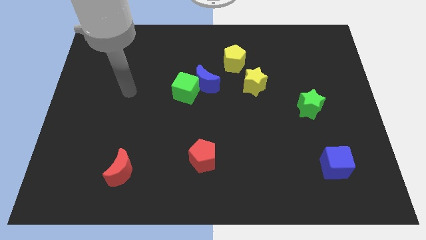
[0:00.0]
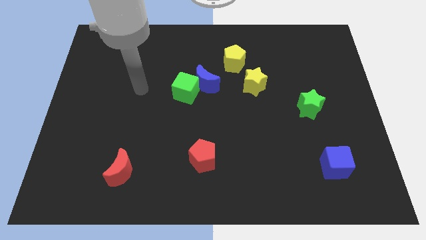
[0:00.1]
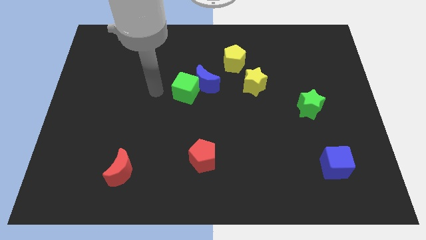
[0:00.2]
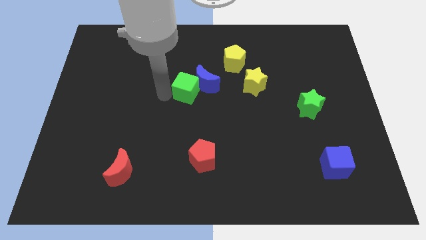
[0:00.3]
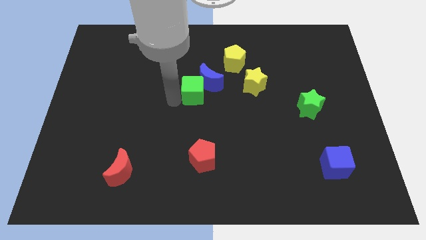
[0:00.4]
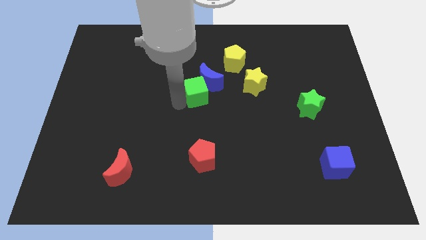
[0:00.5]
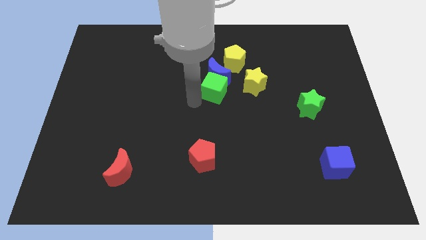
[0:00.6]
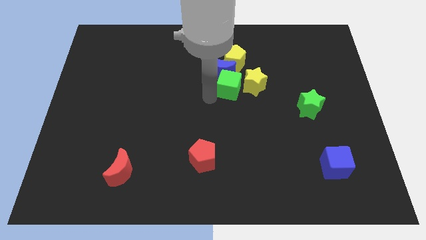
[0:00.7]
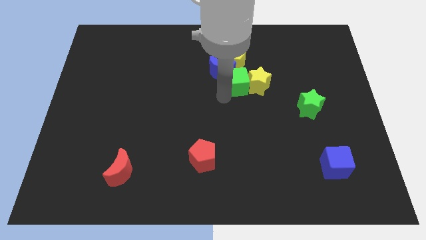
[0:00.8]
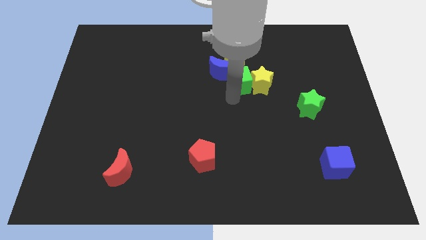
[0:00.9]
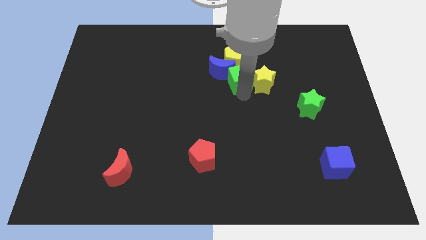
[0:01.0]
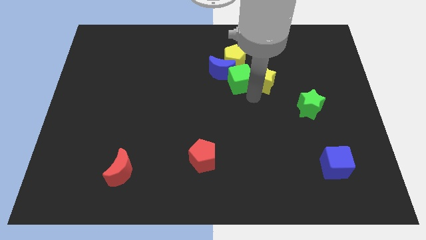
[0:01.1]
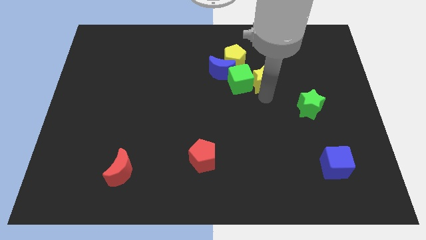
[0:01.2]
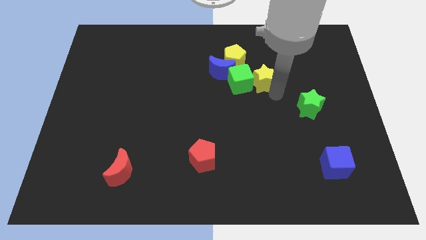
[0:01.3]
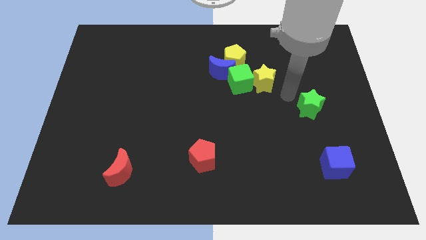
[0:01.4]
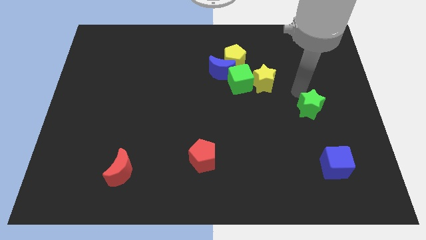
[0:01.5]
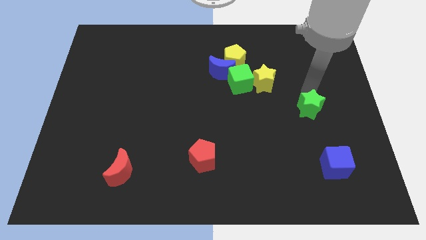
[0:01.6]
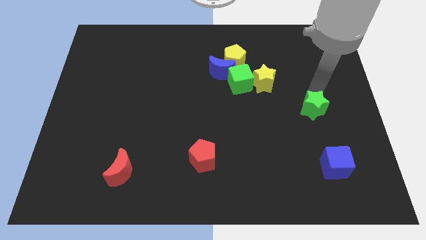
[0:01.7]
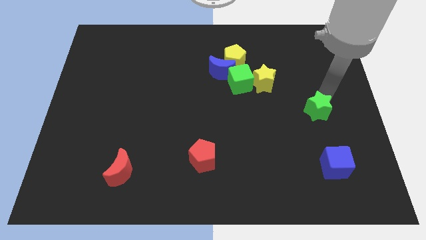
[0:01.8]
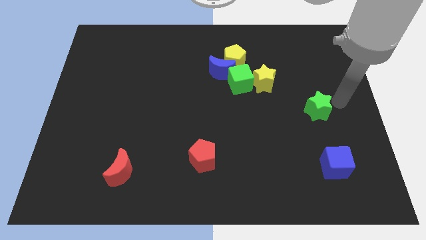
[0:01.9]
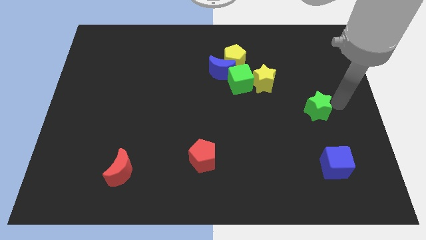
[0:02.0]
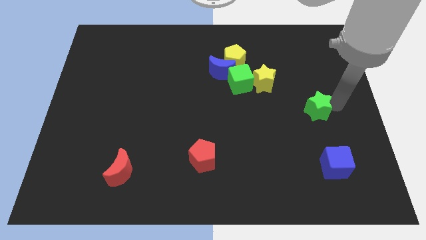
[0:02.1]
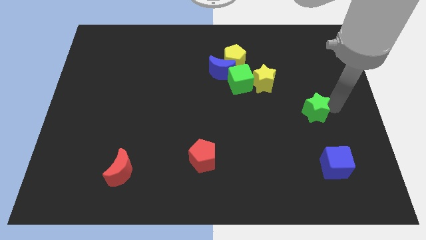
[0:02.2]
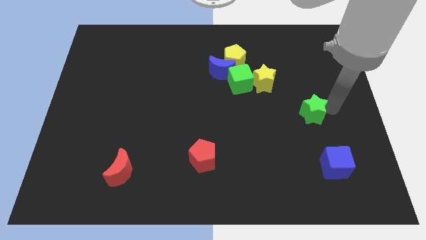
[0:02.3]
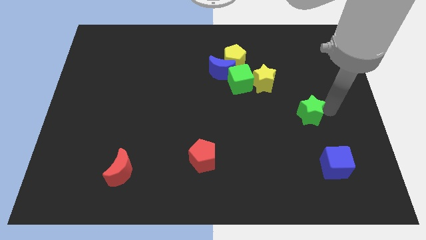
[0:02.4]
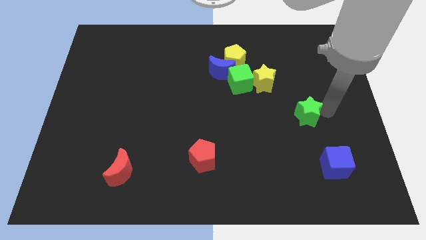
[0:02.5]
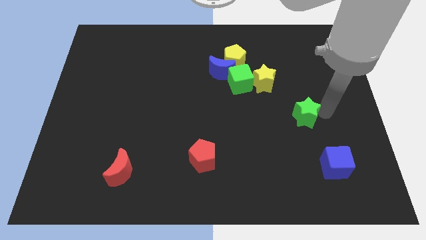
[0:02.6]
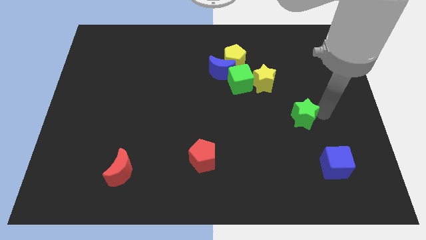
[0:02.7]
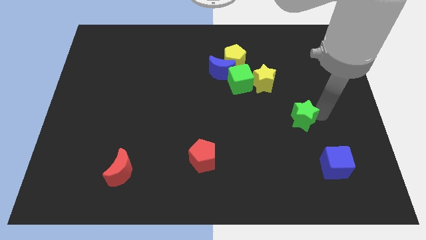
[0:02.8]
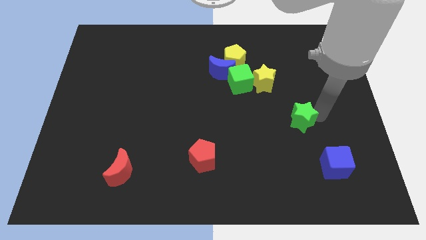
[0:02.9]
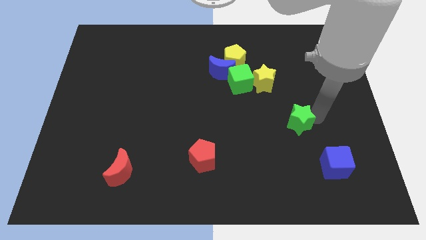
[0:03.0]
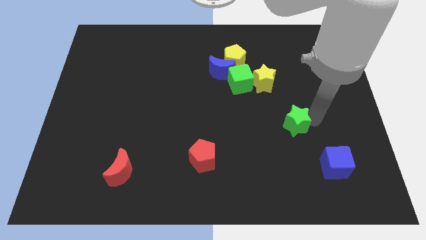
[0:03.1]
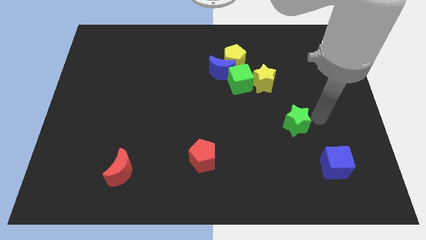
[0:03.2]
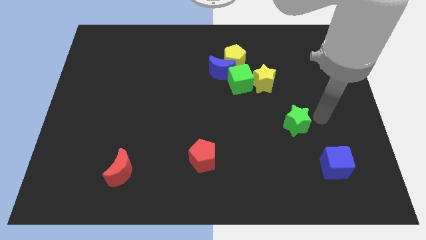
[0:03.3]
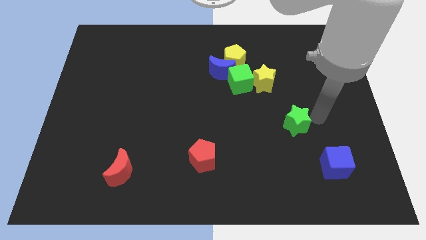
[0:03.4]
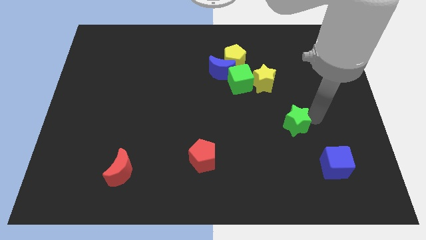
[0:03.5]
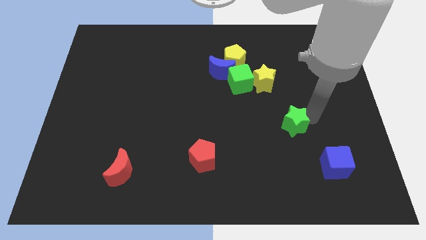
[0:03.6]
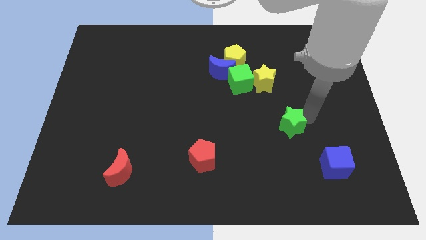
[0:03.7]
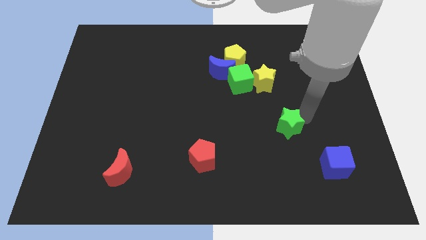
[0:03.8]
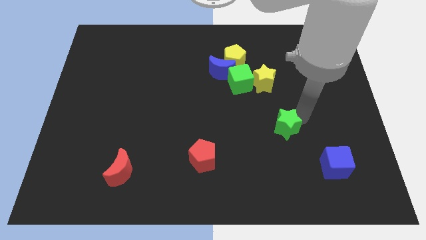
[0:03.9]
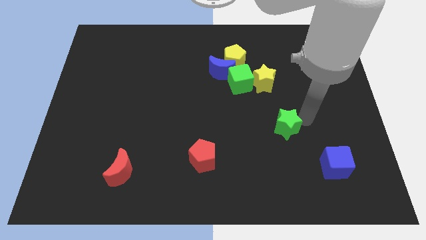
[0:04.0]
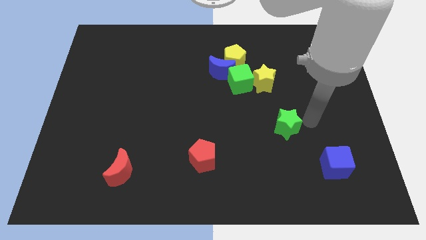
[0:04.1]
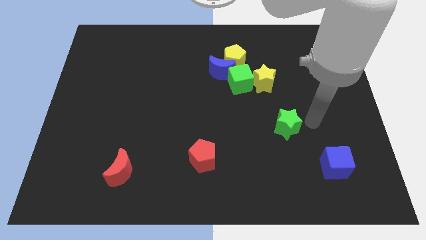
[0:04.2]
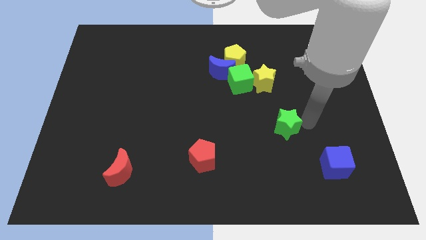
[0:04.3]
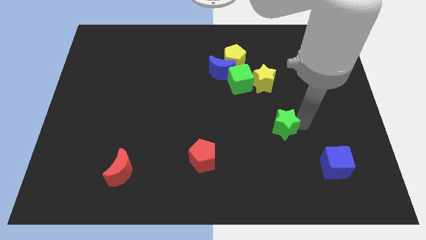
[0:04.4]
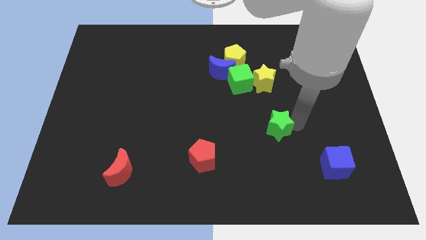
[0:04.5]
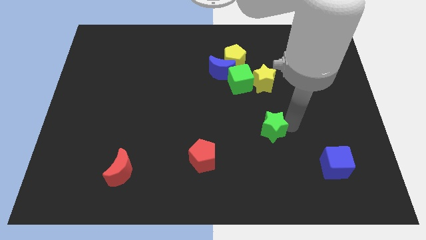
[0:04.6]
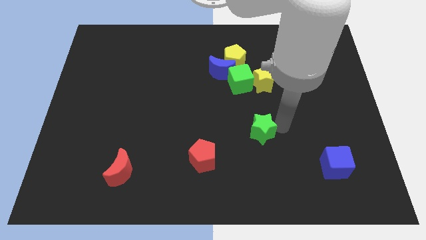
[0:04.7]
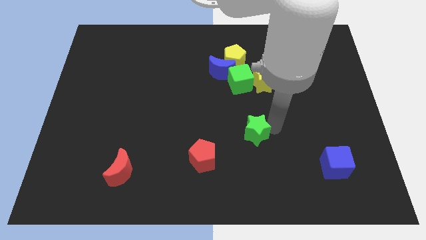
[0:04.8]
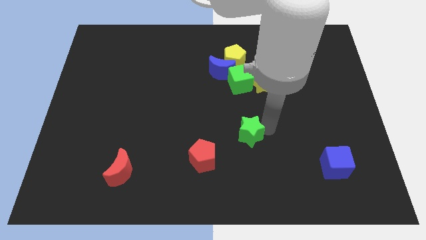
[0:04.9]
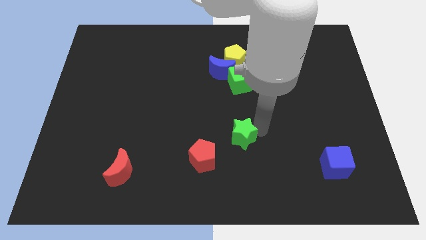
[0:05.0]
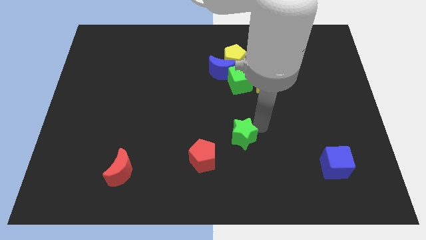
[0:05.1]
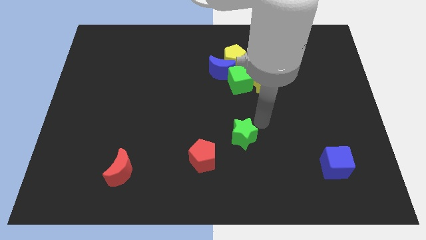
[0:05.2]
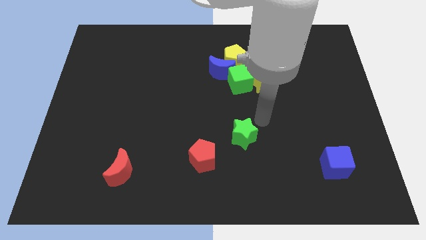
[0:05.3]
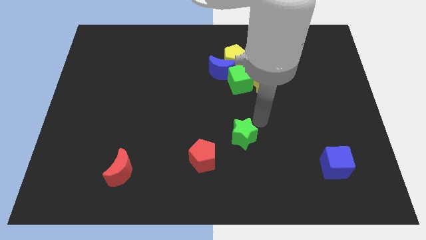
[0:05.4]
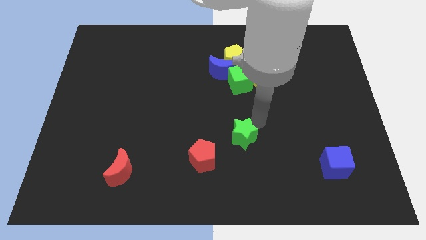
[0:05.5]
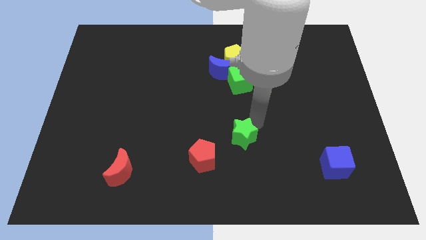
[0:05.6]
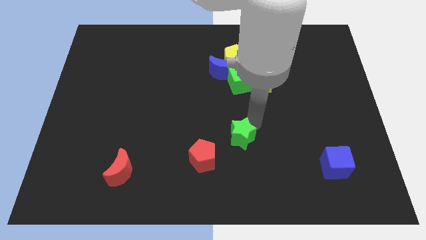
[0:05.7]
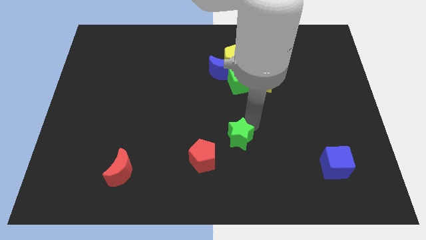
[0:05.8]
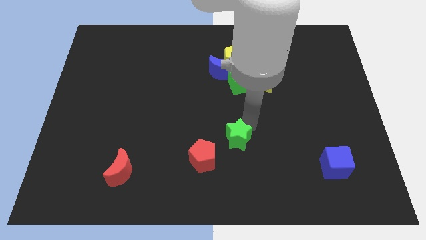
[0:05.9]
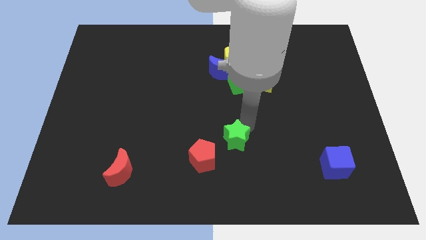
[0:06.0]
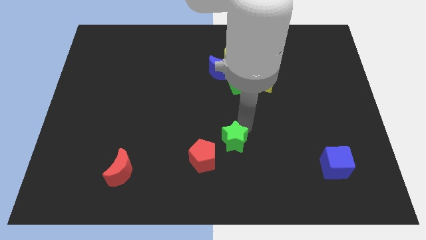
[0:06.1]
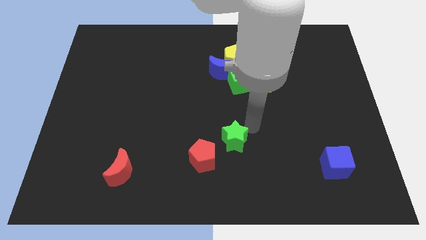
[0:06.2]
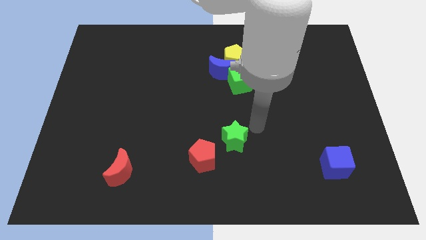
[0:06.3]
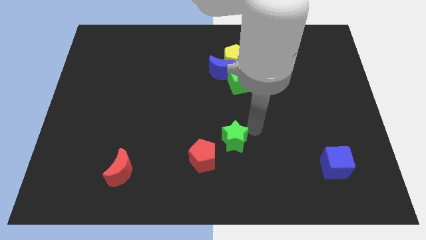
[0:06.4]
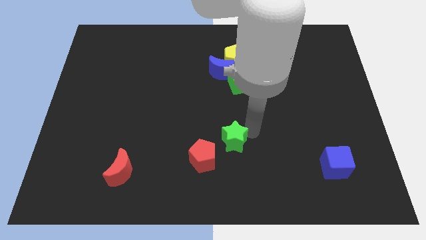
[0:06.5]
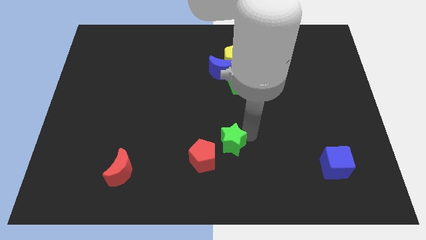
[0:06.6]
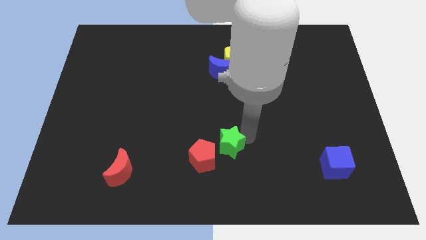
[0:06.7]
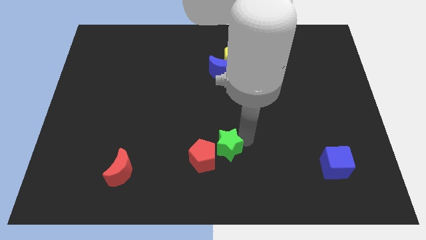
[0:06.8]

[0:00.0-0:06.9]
push the green star close to the red pentagon
